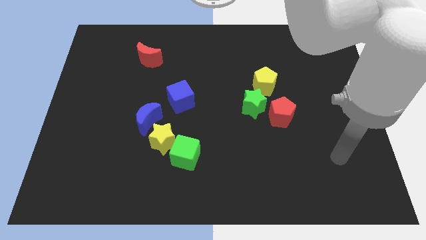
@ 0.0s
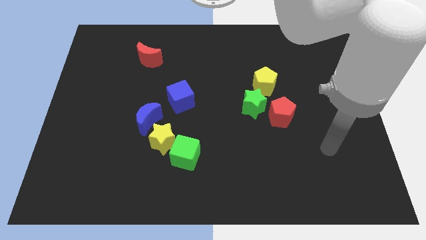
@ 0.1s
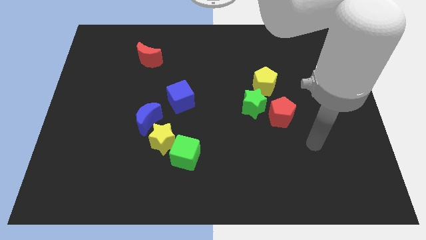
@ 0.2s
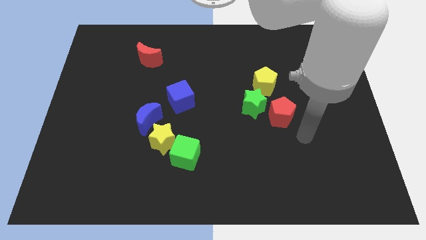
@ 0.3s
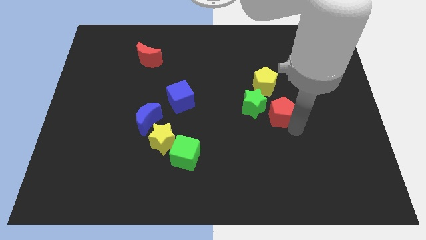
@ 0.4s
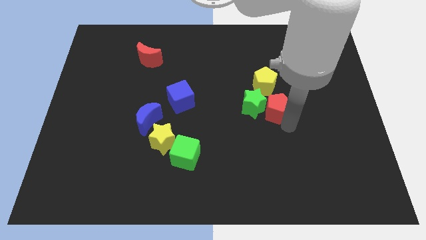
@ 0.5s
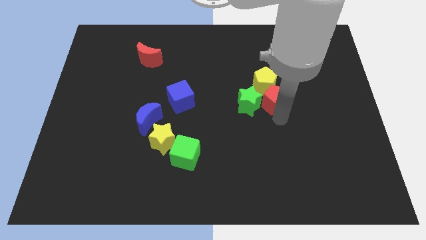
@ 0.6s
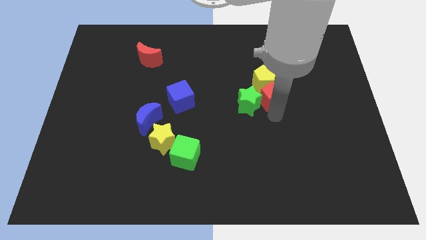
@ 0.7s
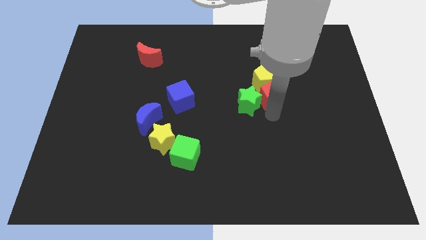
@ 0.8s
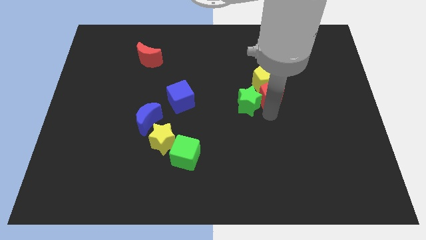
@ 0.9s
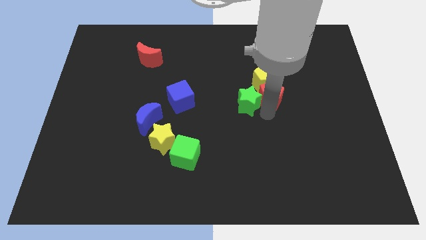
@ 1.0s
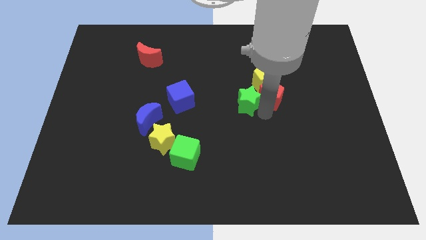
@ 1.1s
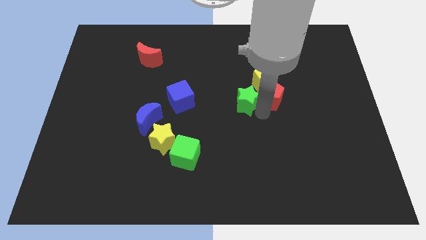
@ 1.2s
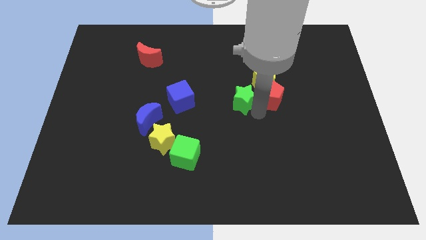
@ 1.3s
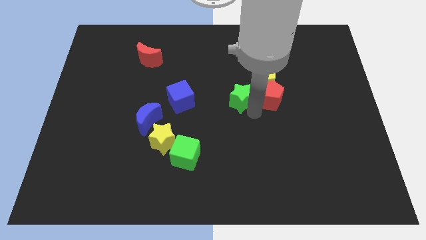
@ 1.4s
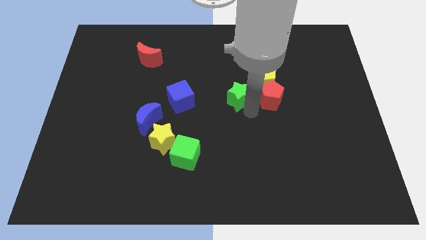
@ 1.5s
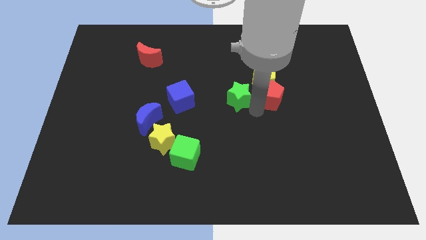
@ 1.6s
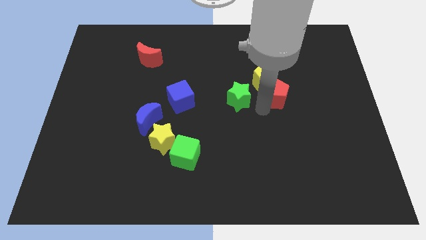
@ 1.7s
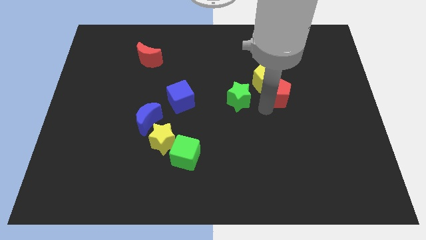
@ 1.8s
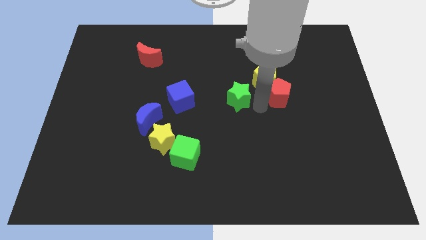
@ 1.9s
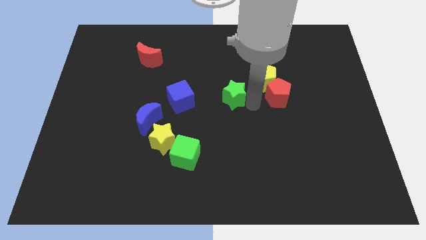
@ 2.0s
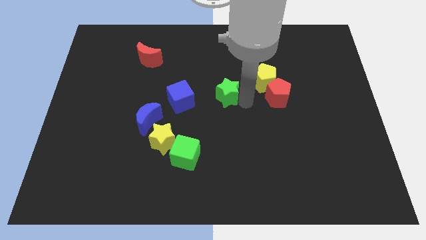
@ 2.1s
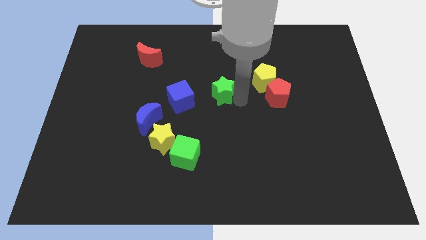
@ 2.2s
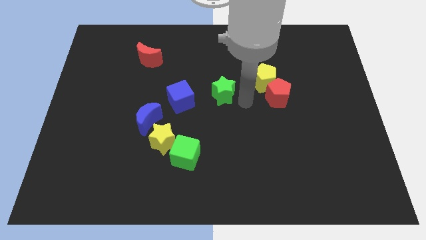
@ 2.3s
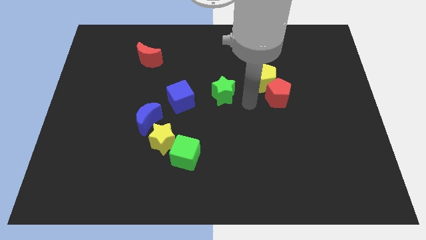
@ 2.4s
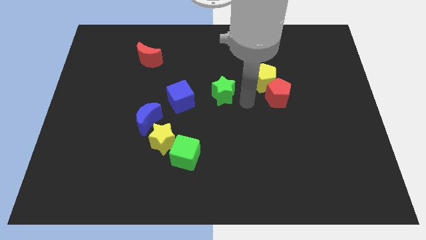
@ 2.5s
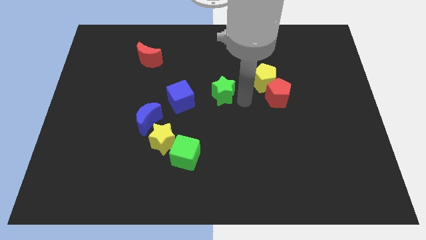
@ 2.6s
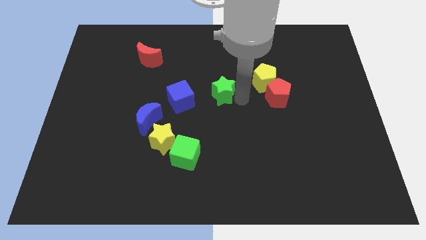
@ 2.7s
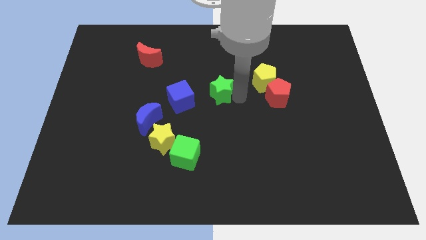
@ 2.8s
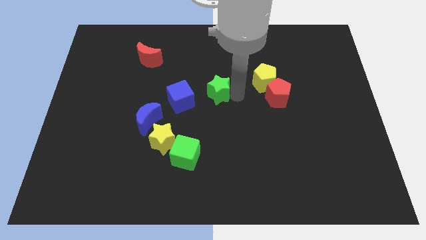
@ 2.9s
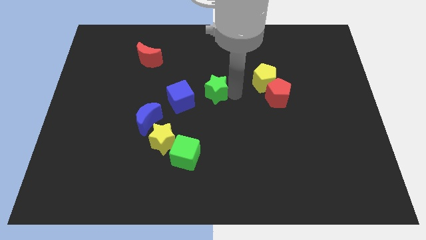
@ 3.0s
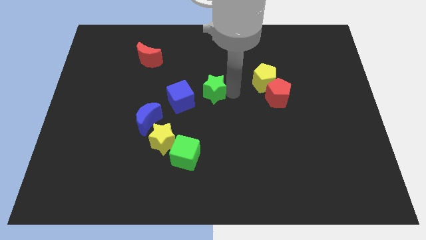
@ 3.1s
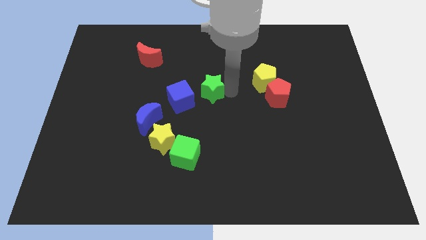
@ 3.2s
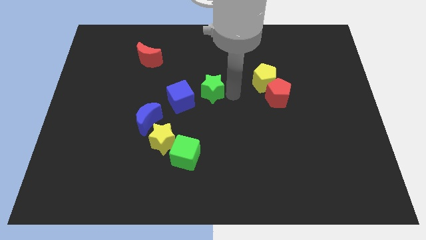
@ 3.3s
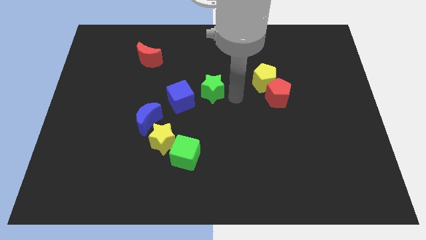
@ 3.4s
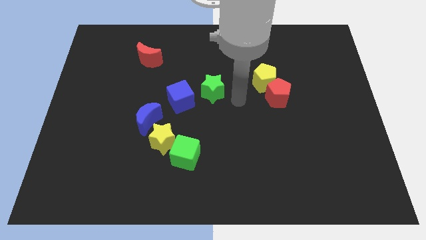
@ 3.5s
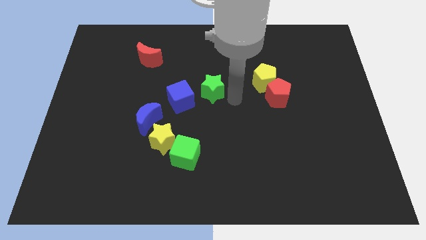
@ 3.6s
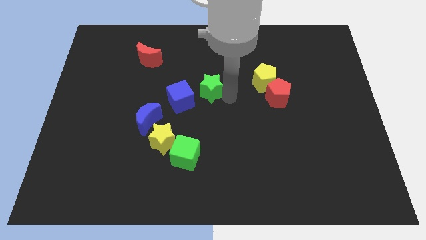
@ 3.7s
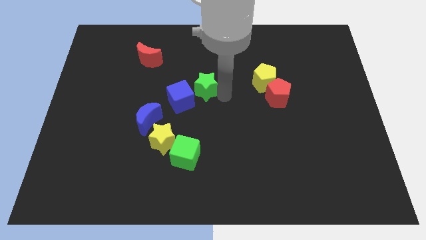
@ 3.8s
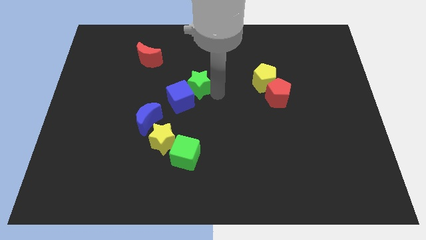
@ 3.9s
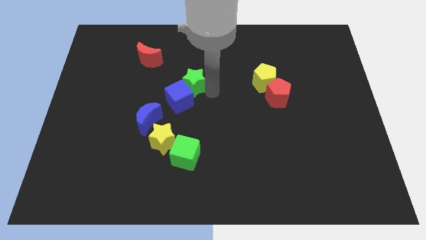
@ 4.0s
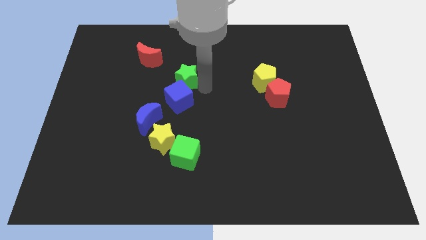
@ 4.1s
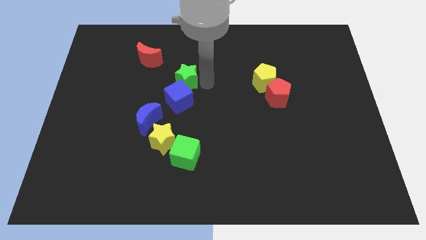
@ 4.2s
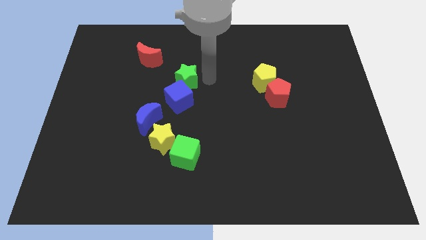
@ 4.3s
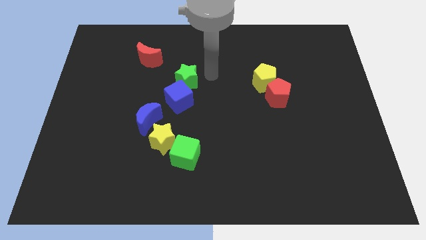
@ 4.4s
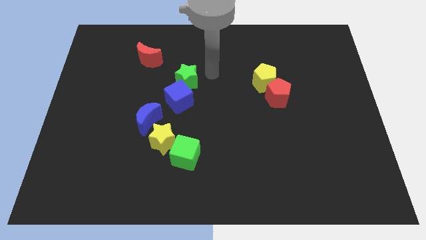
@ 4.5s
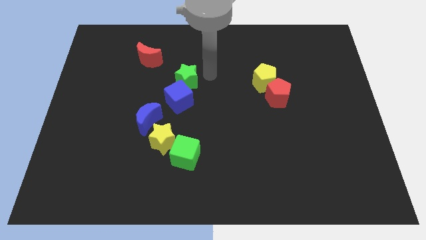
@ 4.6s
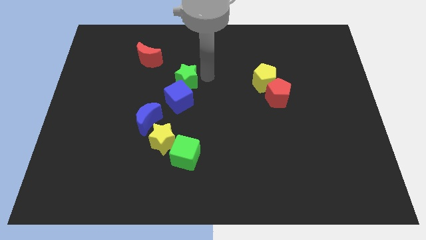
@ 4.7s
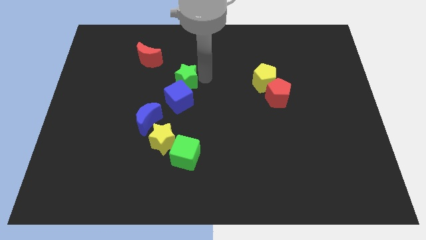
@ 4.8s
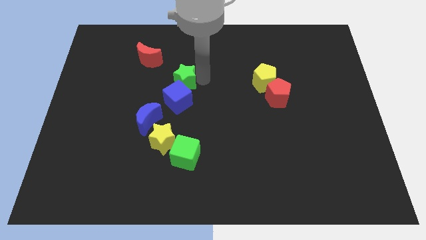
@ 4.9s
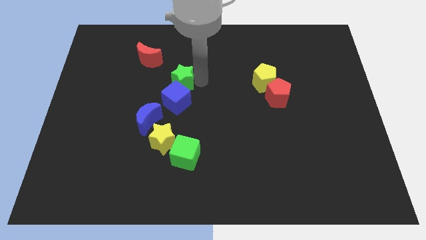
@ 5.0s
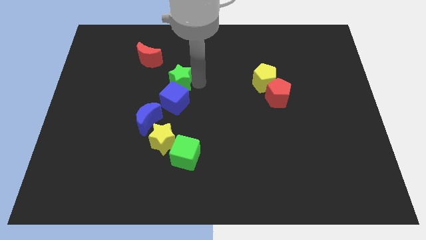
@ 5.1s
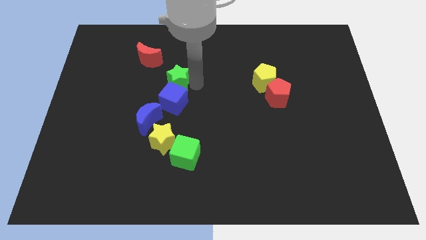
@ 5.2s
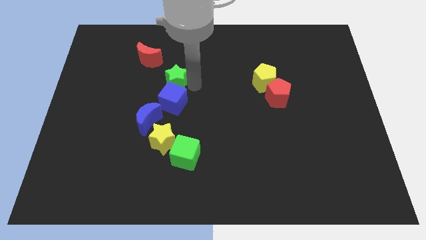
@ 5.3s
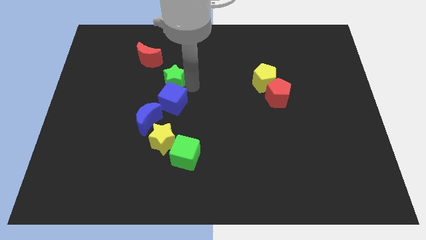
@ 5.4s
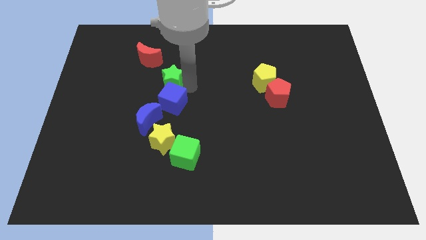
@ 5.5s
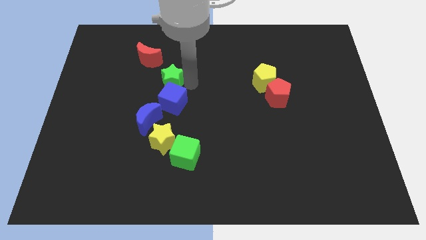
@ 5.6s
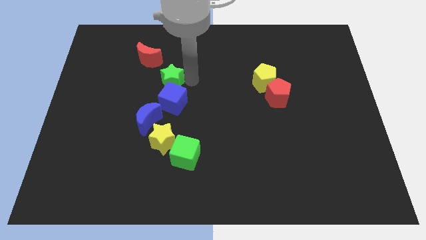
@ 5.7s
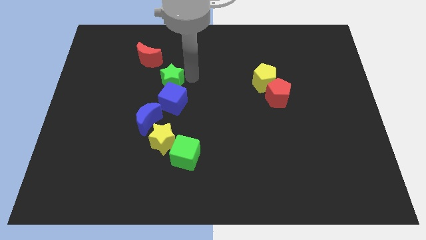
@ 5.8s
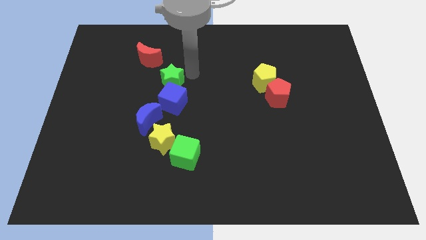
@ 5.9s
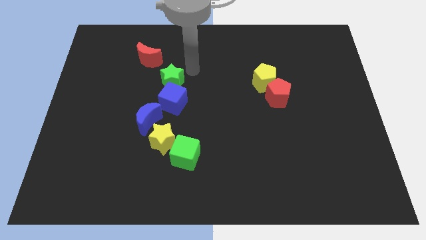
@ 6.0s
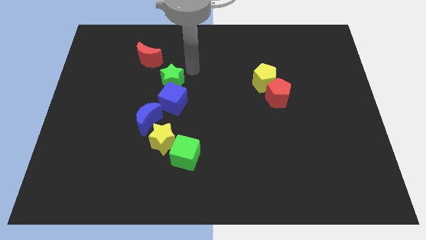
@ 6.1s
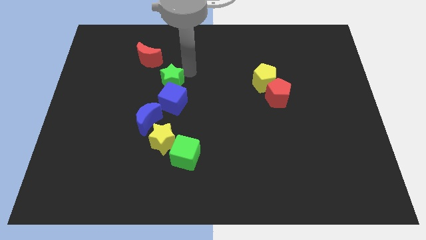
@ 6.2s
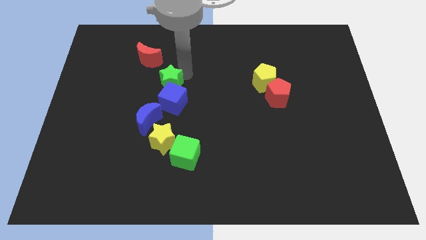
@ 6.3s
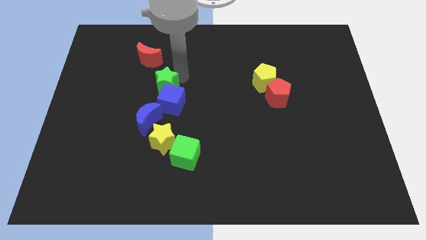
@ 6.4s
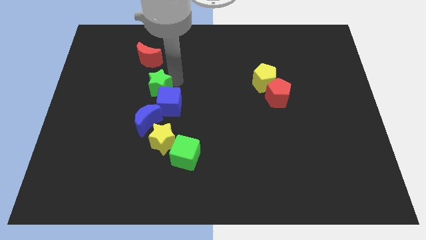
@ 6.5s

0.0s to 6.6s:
move the green star left

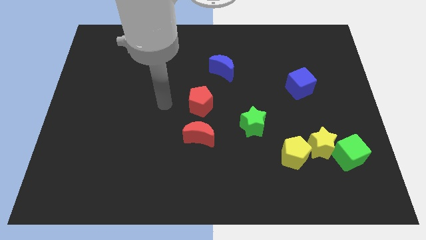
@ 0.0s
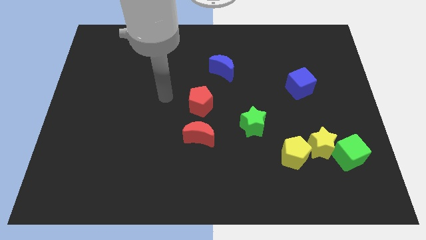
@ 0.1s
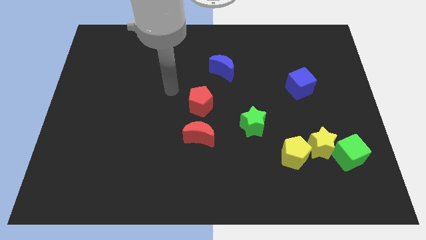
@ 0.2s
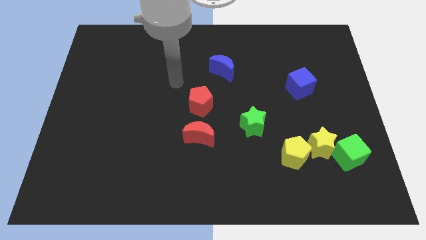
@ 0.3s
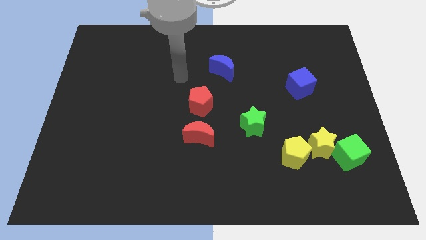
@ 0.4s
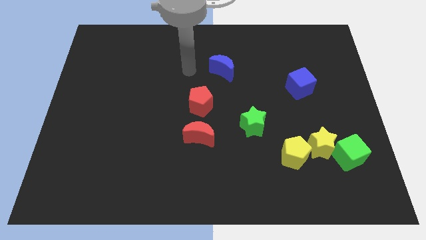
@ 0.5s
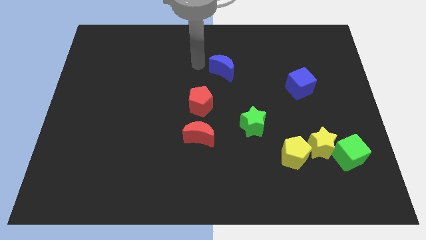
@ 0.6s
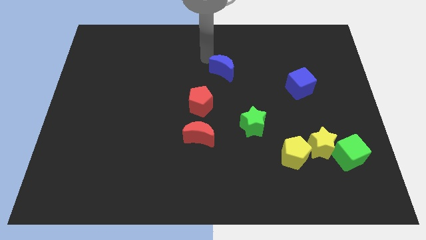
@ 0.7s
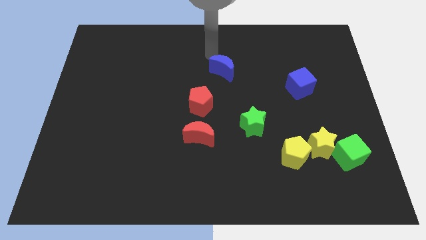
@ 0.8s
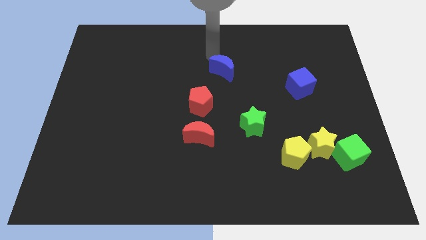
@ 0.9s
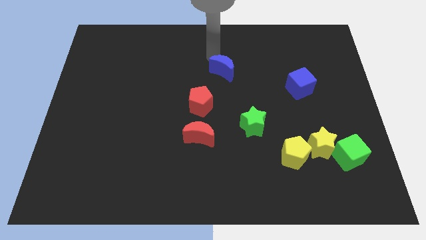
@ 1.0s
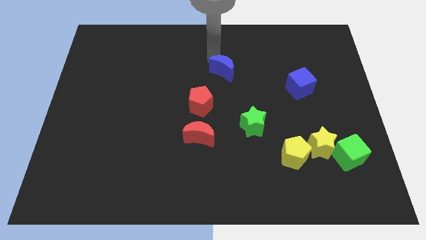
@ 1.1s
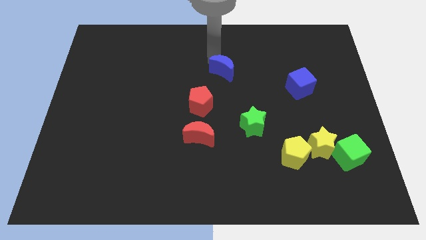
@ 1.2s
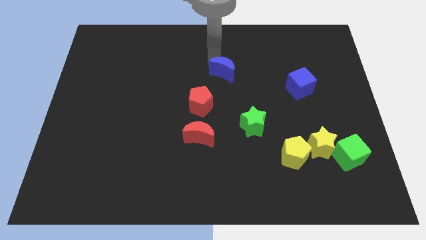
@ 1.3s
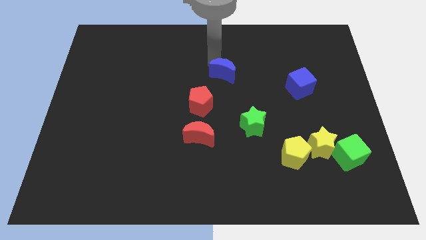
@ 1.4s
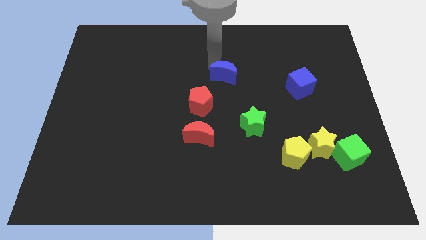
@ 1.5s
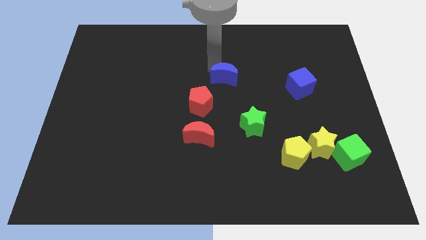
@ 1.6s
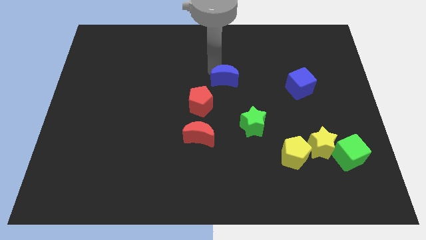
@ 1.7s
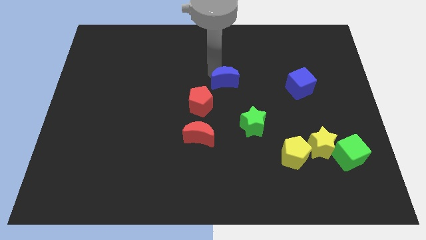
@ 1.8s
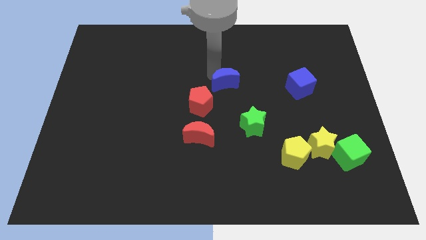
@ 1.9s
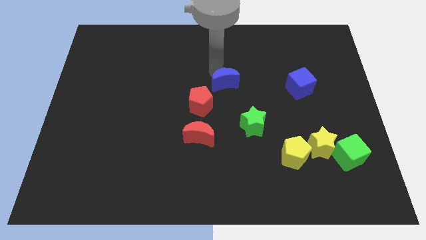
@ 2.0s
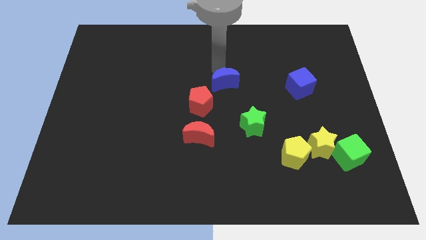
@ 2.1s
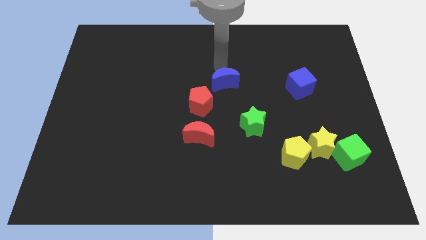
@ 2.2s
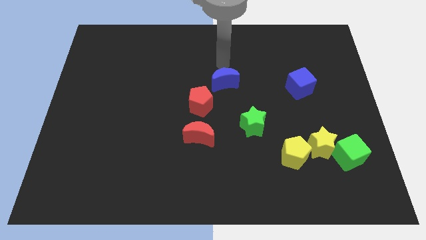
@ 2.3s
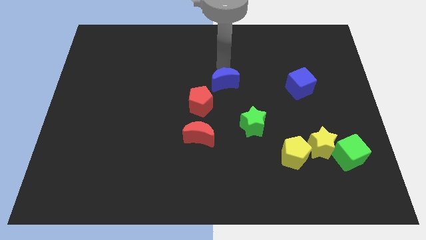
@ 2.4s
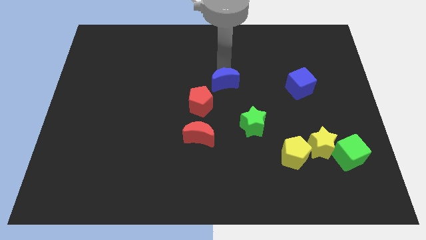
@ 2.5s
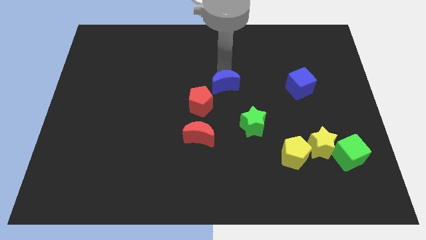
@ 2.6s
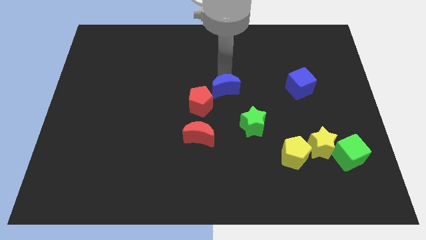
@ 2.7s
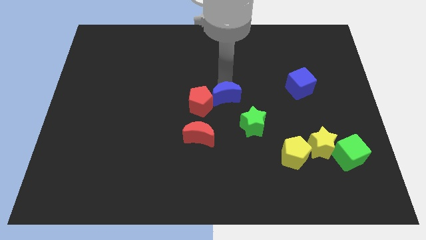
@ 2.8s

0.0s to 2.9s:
move the blue moon a little downwards
